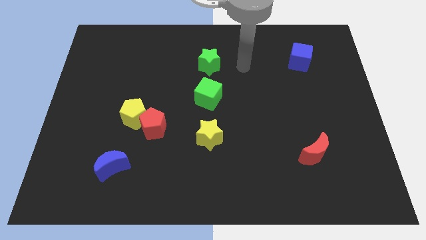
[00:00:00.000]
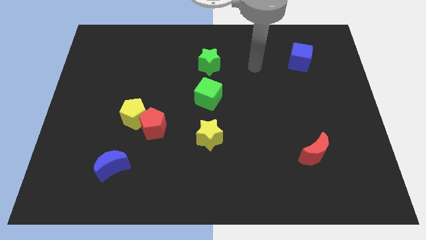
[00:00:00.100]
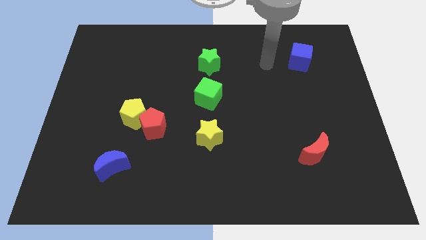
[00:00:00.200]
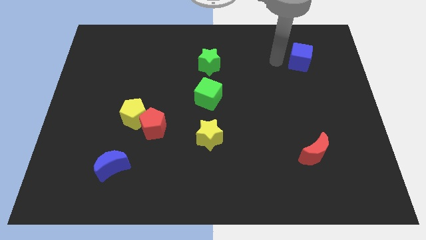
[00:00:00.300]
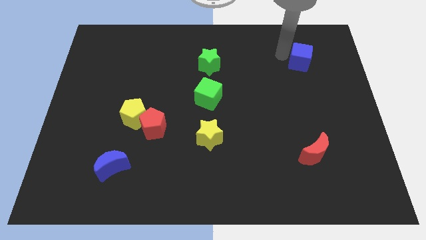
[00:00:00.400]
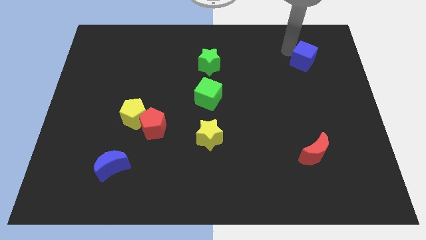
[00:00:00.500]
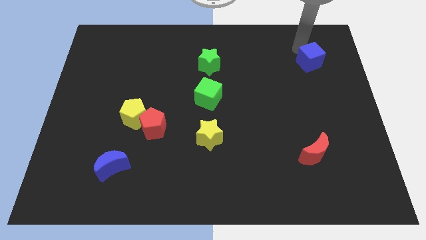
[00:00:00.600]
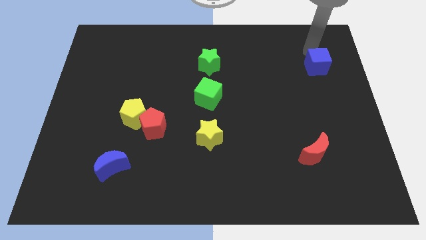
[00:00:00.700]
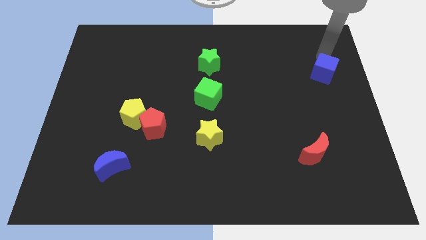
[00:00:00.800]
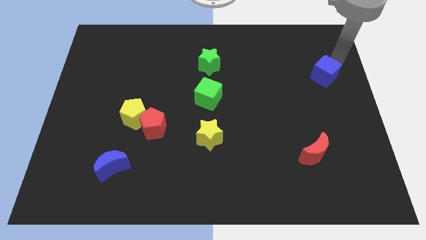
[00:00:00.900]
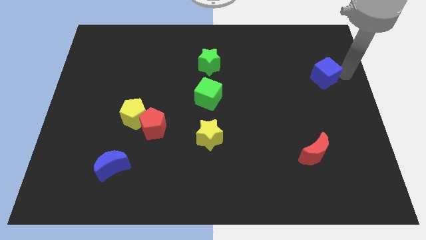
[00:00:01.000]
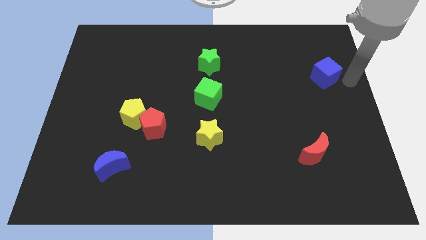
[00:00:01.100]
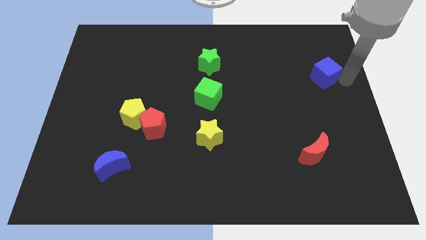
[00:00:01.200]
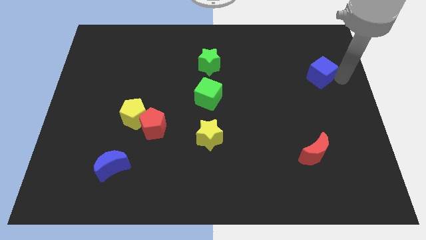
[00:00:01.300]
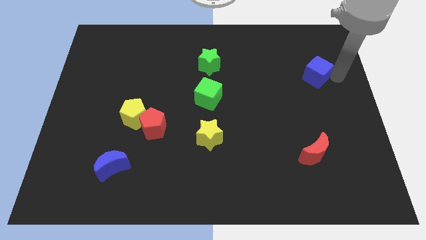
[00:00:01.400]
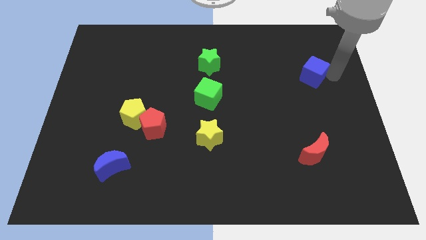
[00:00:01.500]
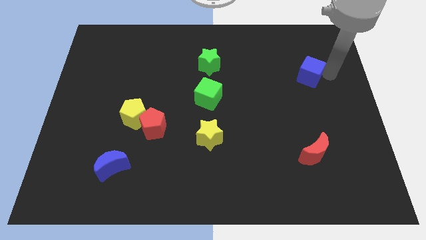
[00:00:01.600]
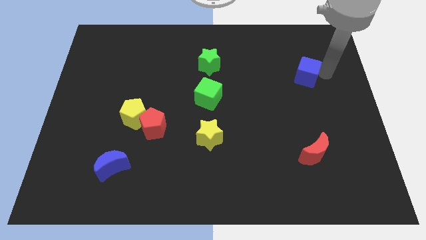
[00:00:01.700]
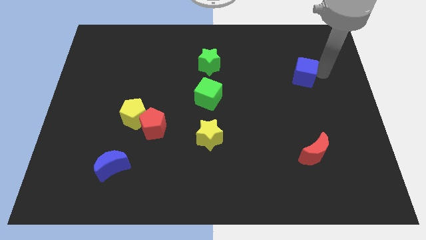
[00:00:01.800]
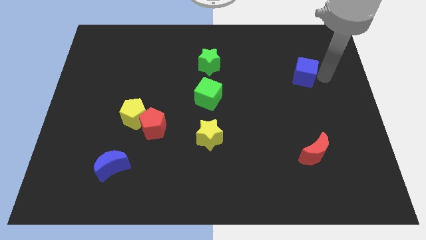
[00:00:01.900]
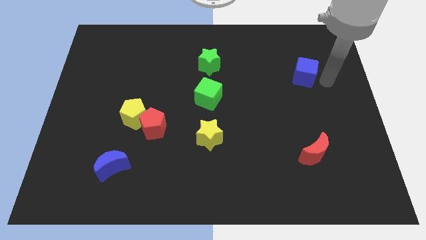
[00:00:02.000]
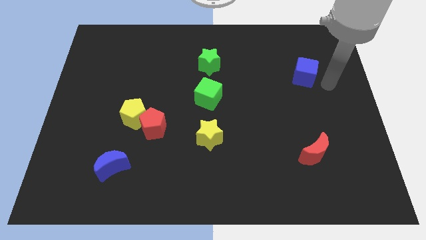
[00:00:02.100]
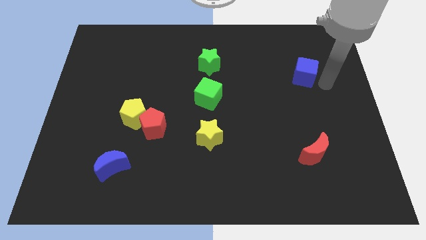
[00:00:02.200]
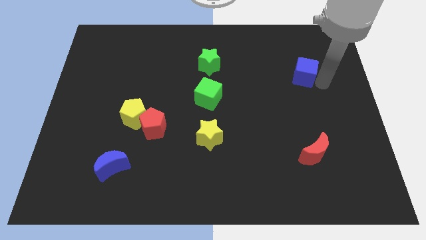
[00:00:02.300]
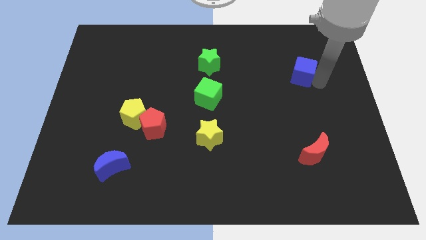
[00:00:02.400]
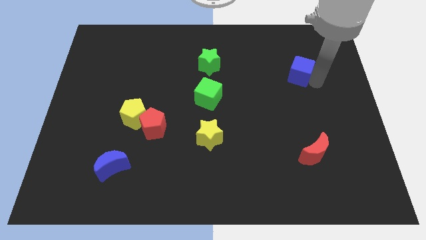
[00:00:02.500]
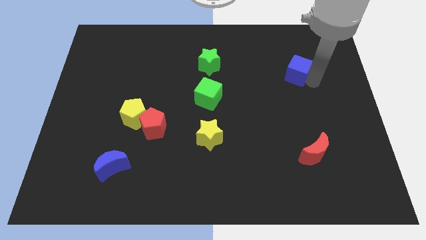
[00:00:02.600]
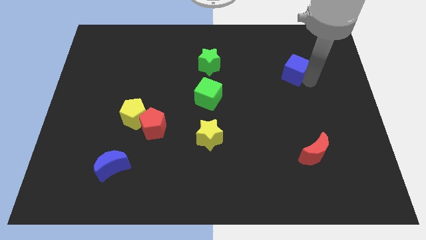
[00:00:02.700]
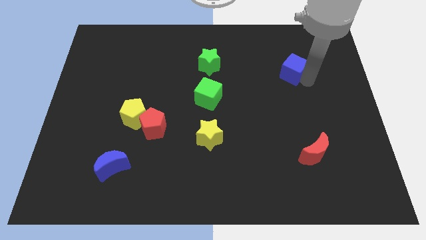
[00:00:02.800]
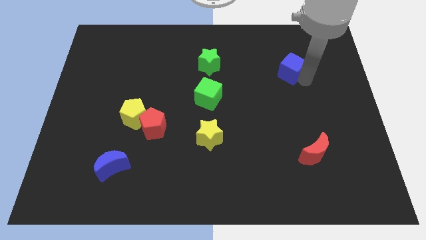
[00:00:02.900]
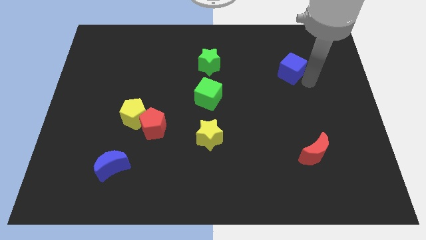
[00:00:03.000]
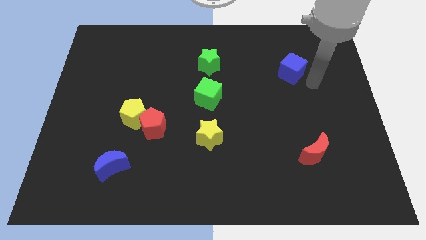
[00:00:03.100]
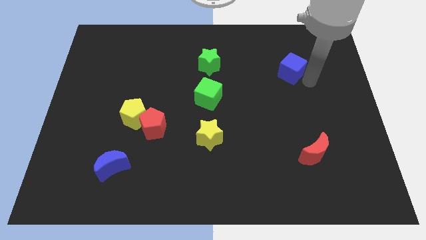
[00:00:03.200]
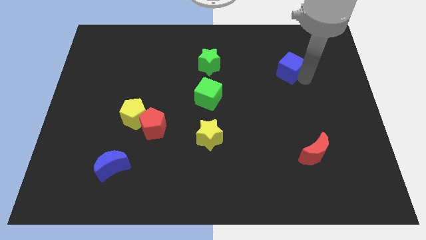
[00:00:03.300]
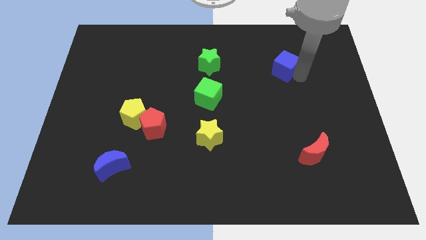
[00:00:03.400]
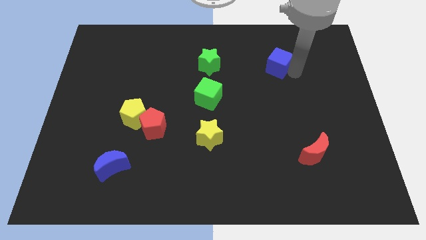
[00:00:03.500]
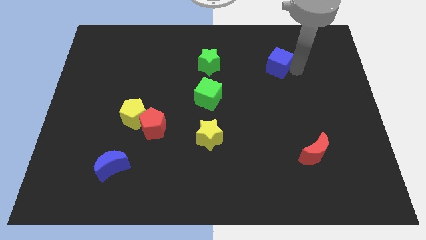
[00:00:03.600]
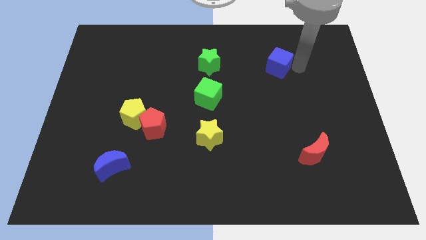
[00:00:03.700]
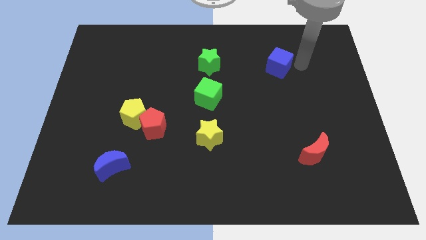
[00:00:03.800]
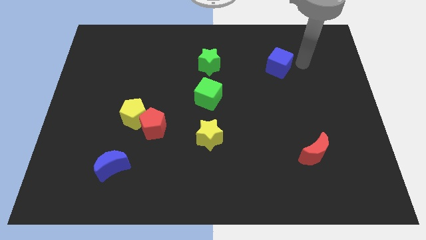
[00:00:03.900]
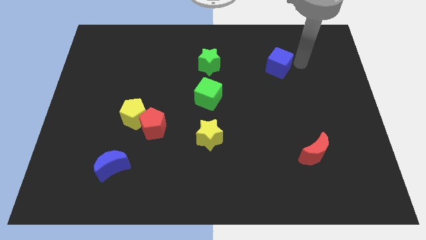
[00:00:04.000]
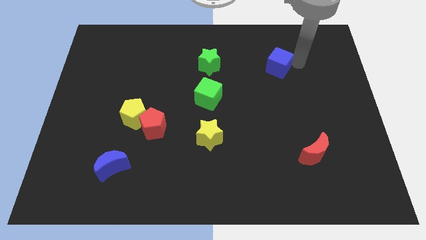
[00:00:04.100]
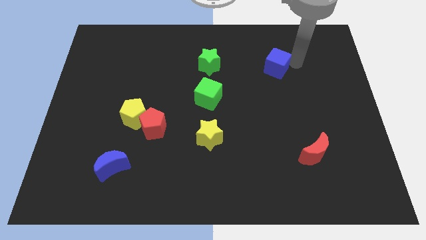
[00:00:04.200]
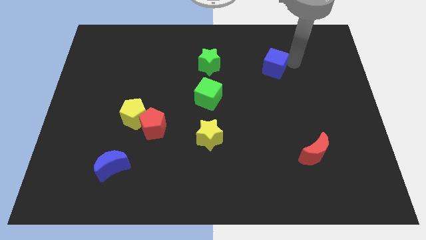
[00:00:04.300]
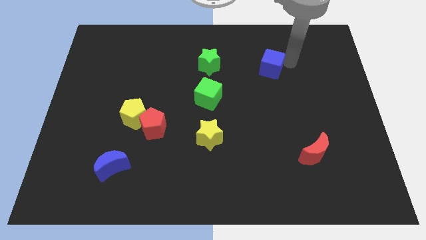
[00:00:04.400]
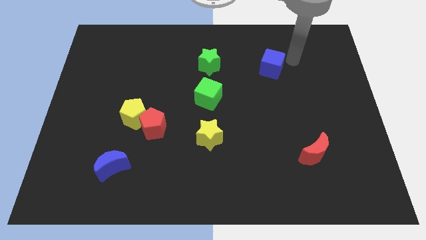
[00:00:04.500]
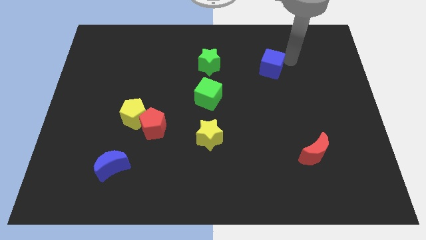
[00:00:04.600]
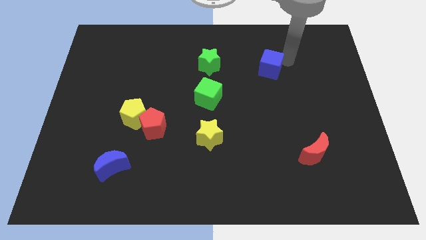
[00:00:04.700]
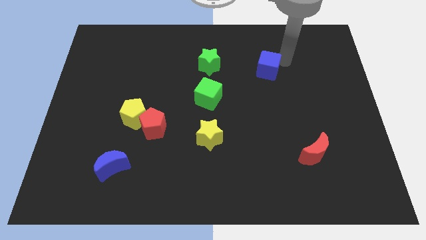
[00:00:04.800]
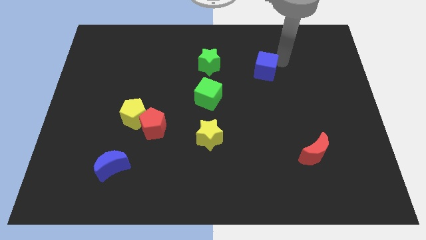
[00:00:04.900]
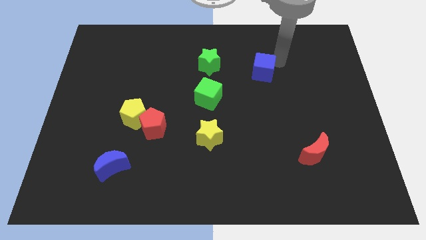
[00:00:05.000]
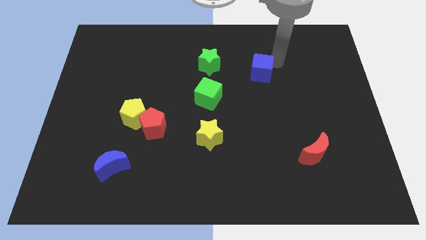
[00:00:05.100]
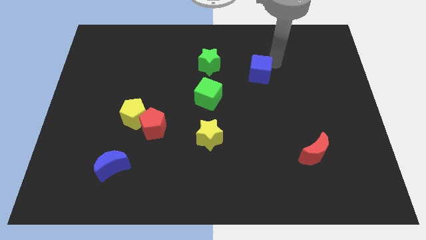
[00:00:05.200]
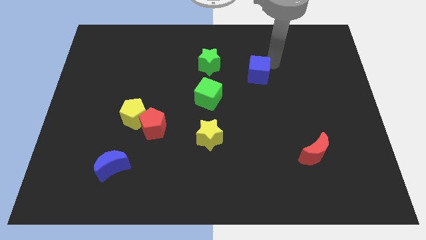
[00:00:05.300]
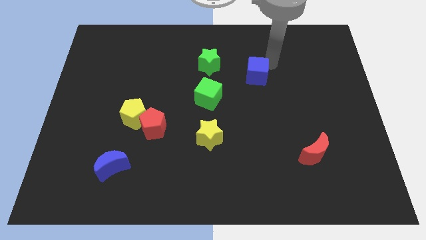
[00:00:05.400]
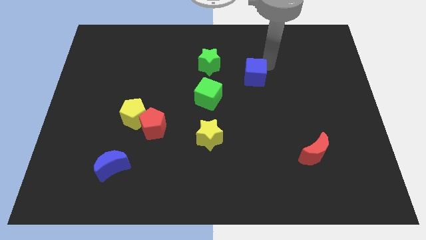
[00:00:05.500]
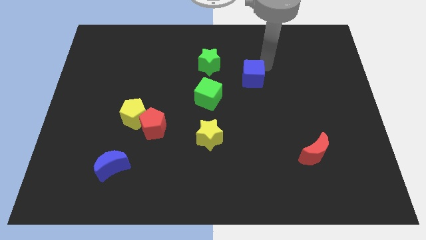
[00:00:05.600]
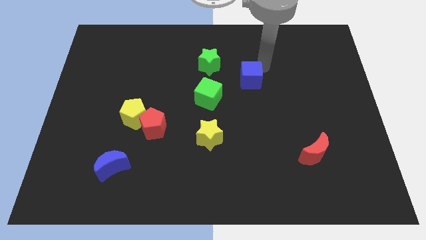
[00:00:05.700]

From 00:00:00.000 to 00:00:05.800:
push the blue cube to the top right side of the green cube

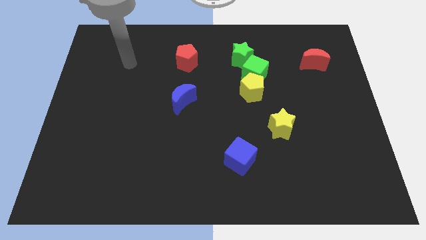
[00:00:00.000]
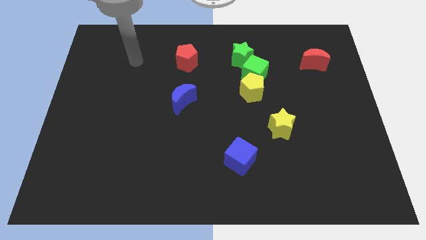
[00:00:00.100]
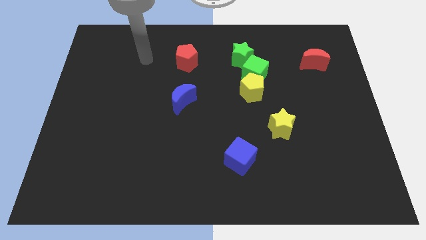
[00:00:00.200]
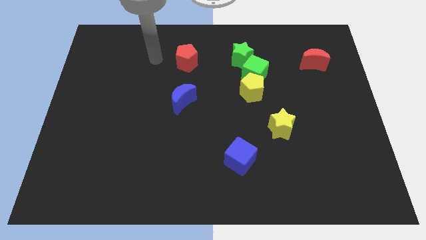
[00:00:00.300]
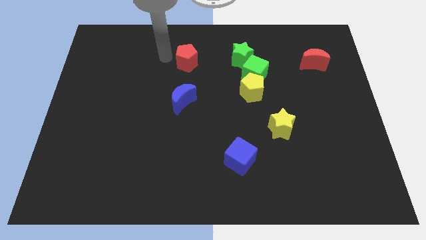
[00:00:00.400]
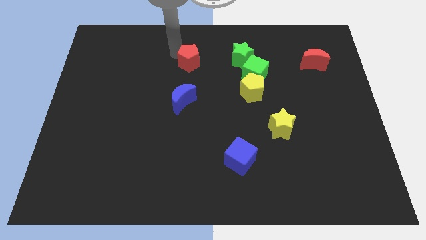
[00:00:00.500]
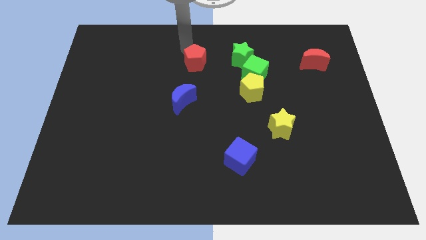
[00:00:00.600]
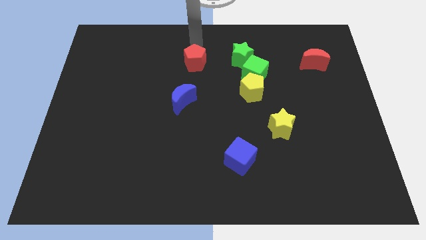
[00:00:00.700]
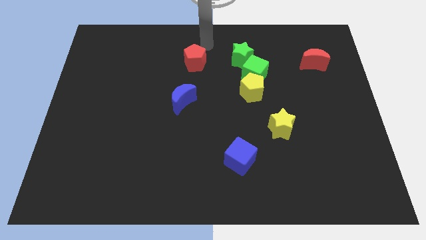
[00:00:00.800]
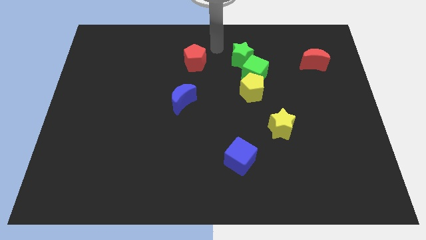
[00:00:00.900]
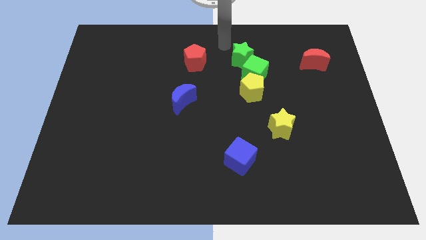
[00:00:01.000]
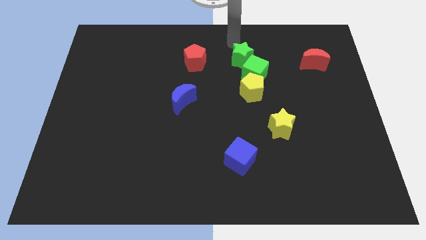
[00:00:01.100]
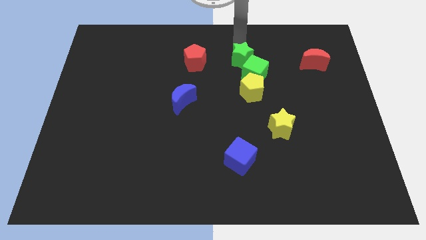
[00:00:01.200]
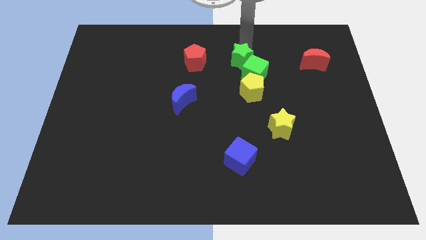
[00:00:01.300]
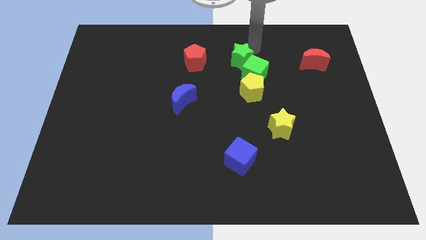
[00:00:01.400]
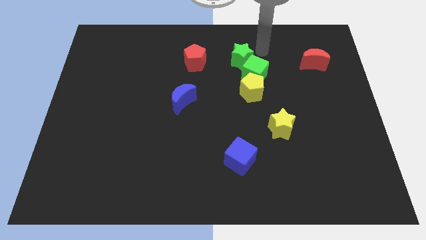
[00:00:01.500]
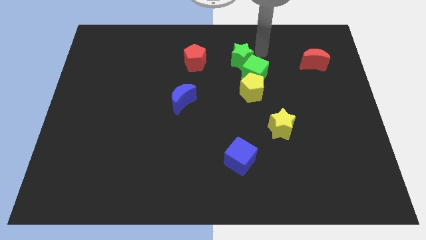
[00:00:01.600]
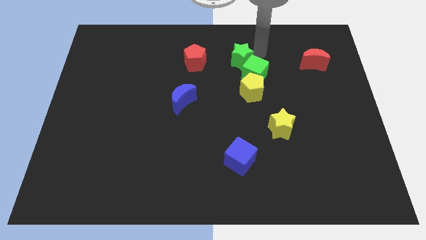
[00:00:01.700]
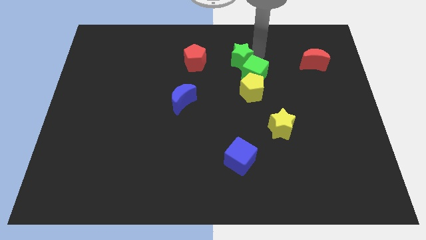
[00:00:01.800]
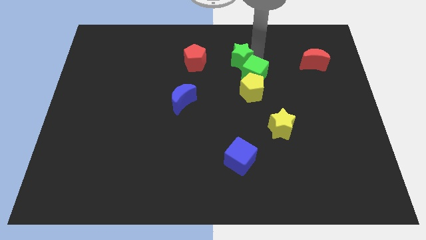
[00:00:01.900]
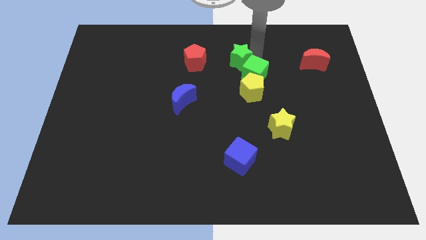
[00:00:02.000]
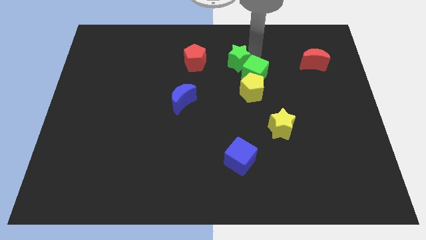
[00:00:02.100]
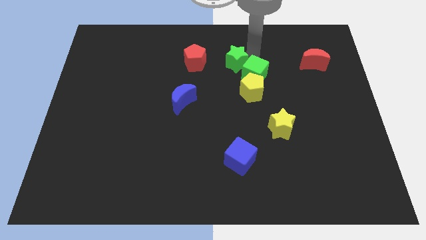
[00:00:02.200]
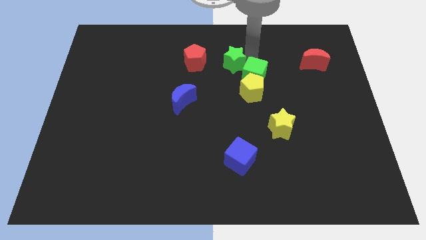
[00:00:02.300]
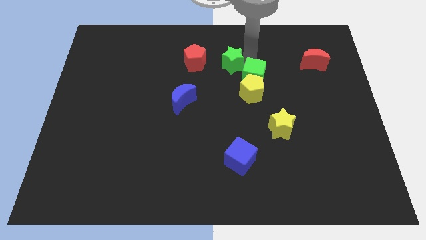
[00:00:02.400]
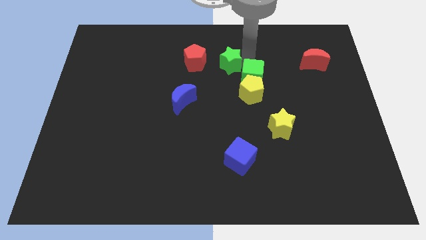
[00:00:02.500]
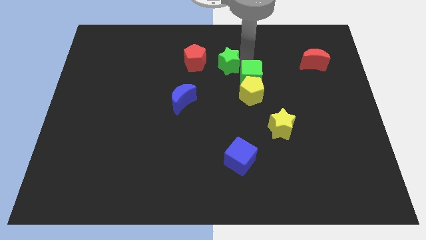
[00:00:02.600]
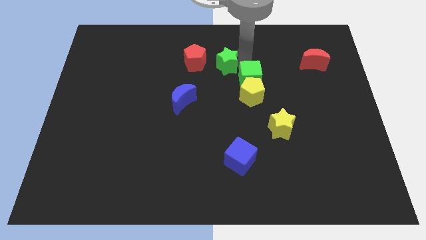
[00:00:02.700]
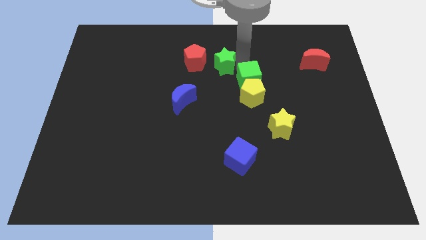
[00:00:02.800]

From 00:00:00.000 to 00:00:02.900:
slide the green star to the bottom right of the red pentagon
